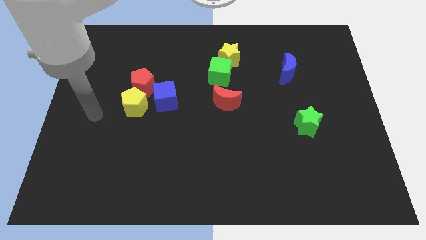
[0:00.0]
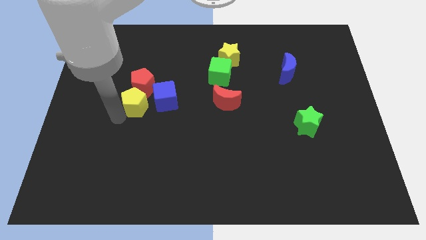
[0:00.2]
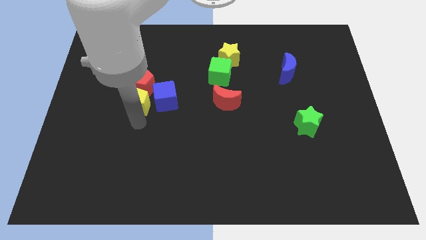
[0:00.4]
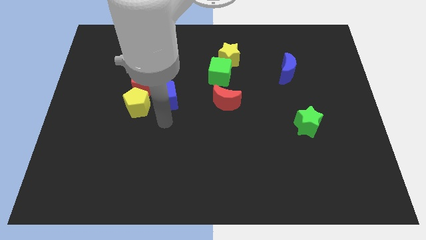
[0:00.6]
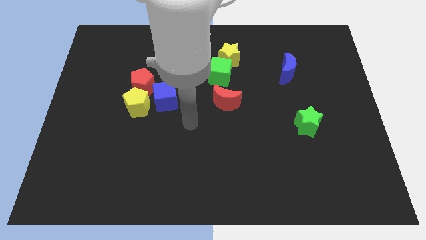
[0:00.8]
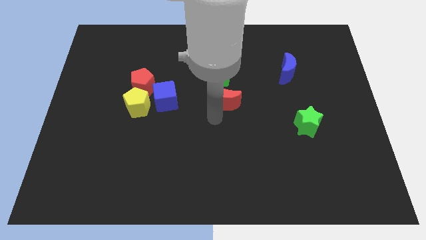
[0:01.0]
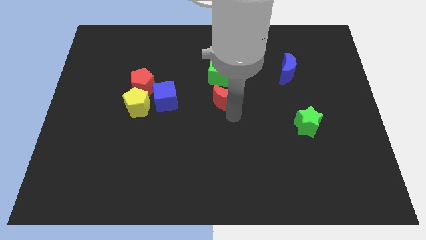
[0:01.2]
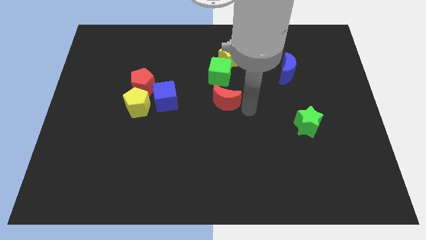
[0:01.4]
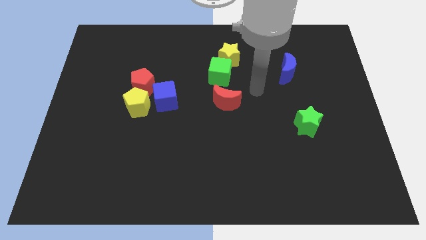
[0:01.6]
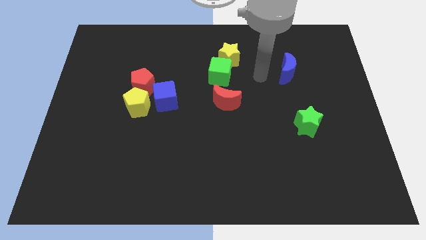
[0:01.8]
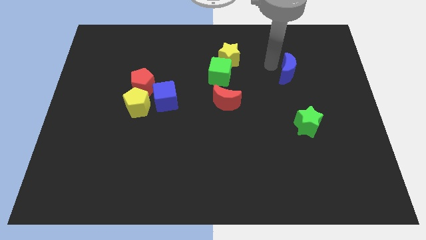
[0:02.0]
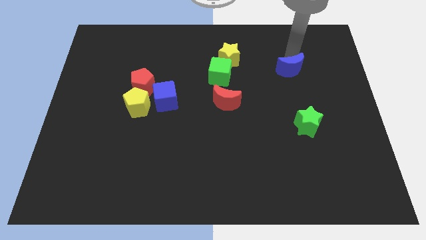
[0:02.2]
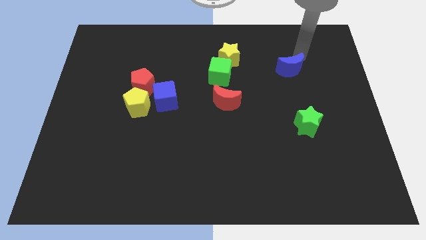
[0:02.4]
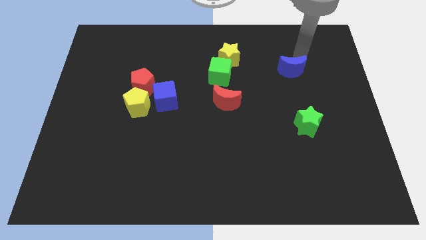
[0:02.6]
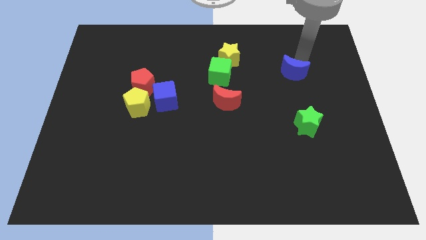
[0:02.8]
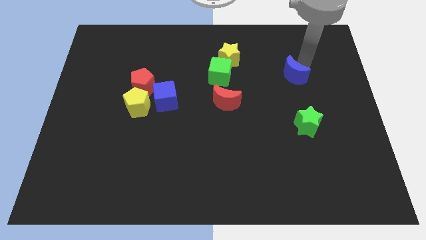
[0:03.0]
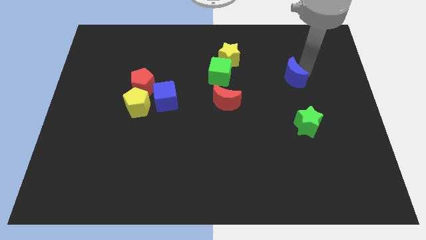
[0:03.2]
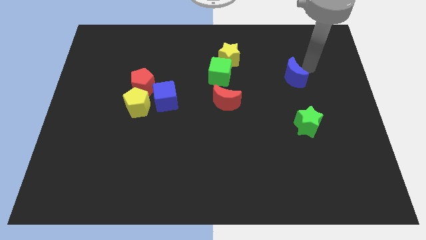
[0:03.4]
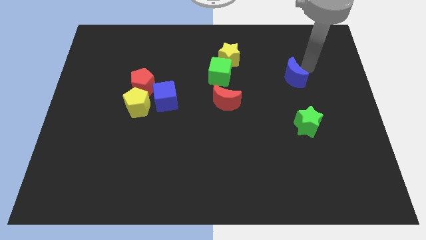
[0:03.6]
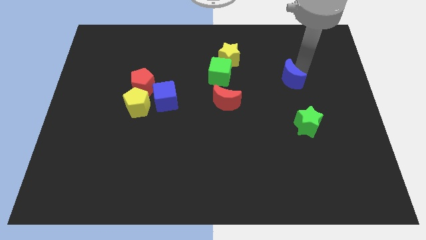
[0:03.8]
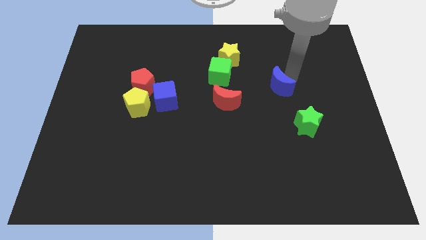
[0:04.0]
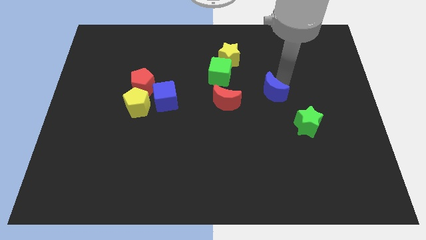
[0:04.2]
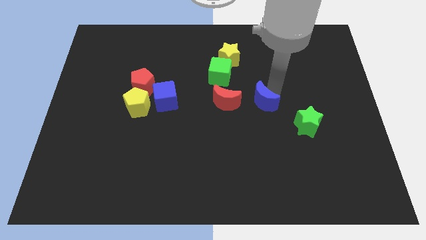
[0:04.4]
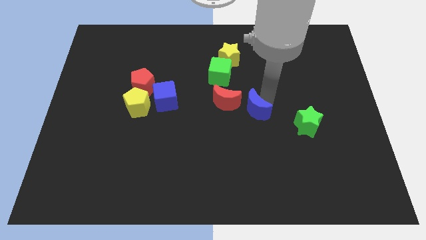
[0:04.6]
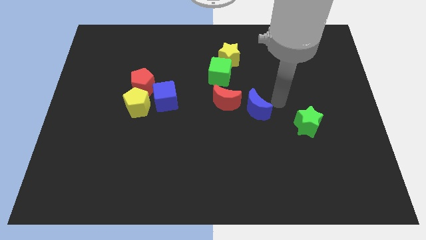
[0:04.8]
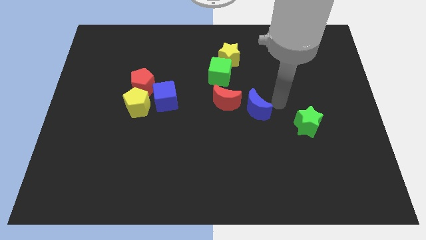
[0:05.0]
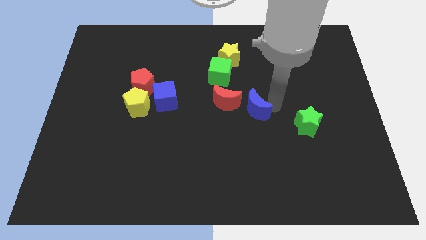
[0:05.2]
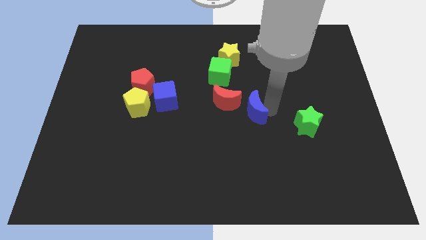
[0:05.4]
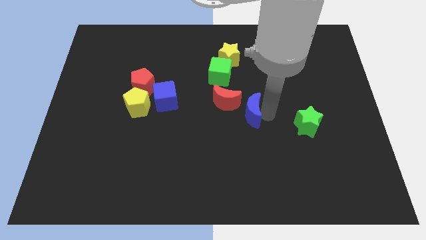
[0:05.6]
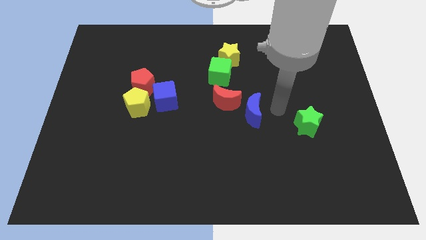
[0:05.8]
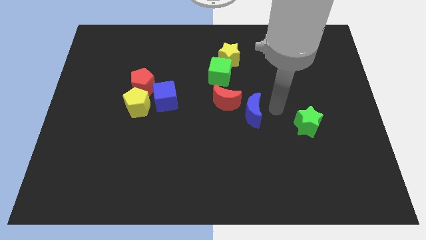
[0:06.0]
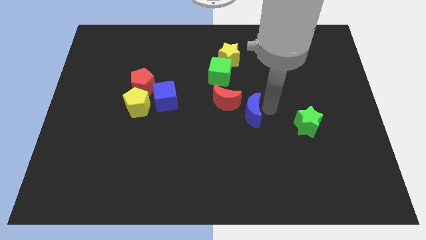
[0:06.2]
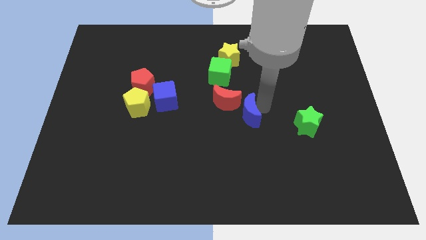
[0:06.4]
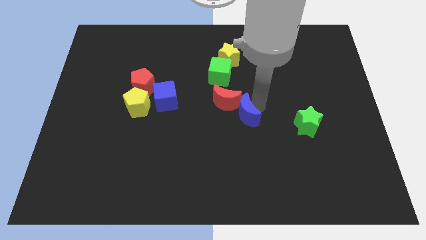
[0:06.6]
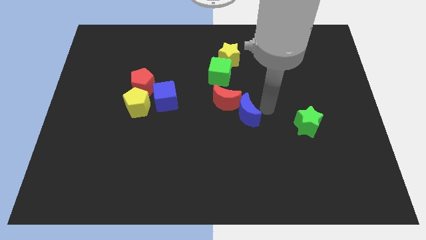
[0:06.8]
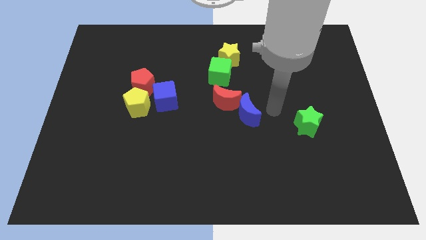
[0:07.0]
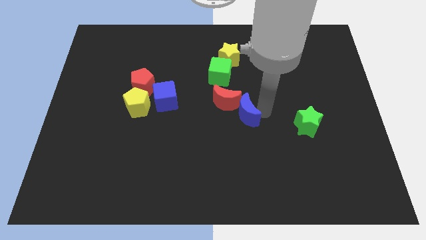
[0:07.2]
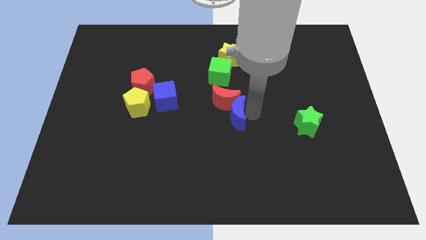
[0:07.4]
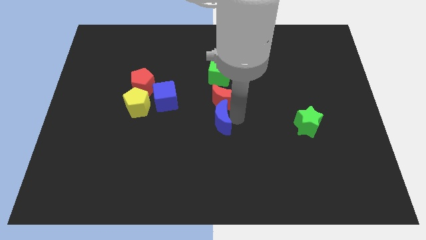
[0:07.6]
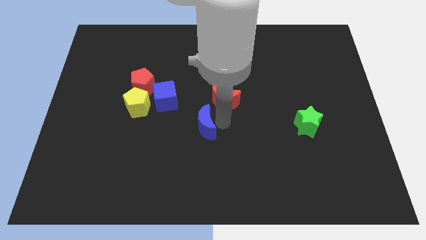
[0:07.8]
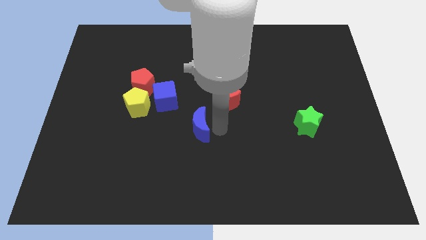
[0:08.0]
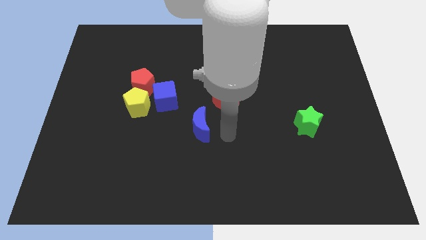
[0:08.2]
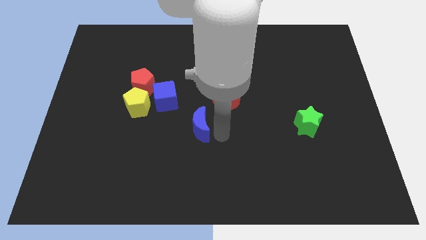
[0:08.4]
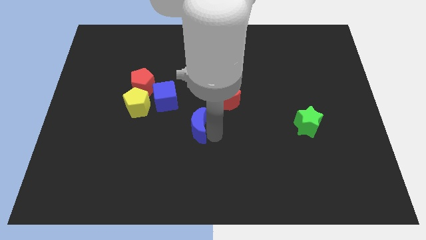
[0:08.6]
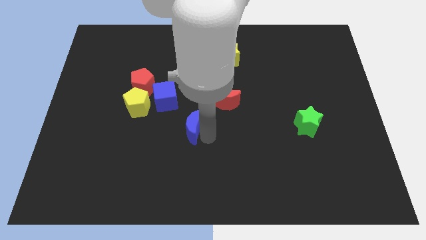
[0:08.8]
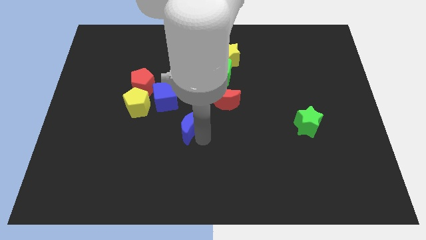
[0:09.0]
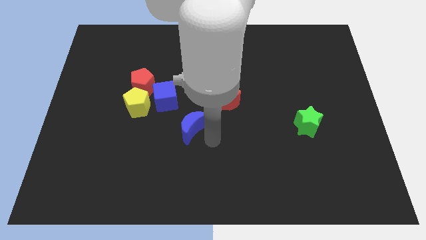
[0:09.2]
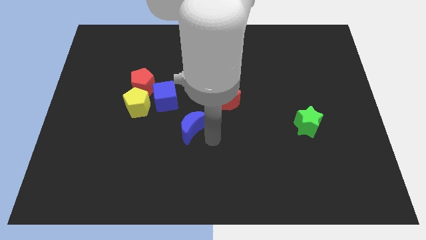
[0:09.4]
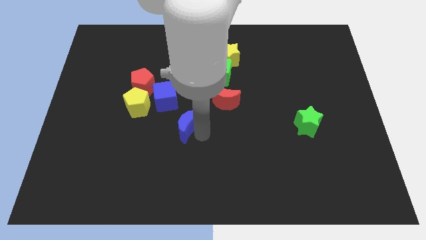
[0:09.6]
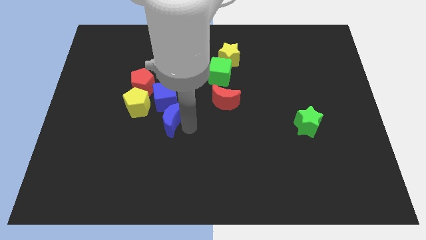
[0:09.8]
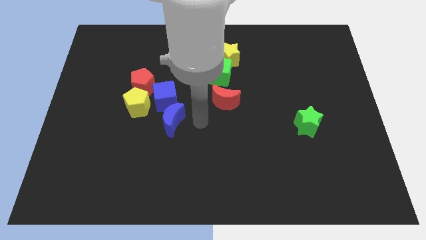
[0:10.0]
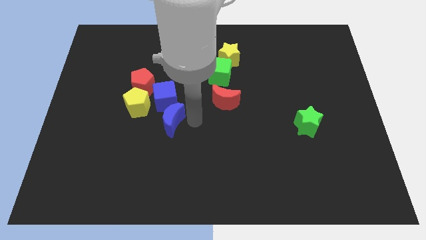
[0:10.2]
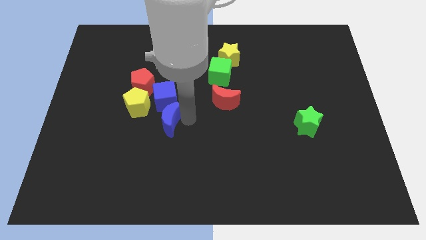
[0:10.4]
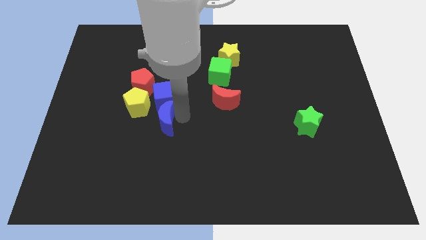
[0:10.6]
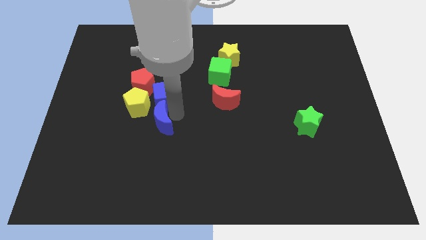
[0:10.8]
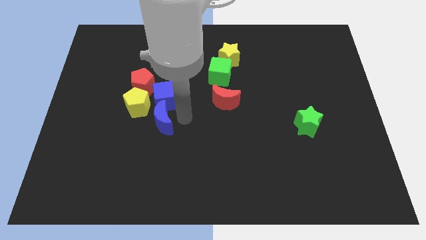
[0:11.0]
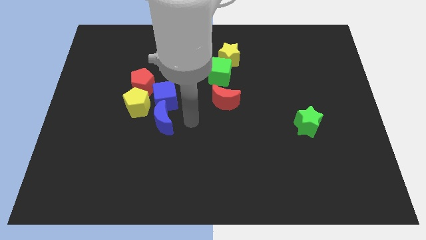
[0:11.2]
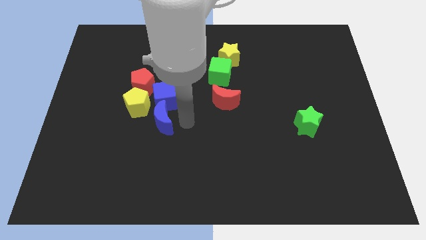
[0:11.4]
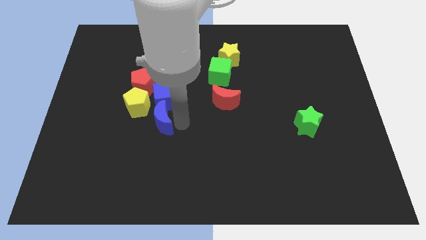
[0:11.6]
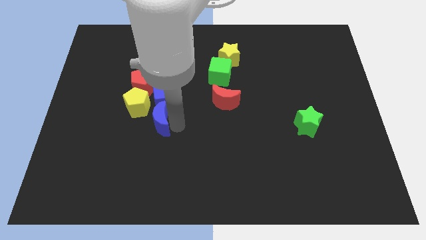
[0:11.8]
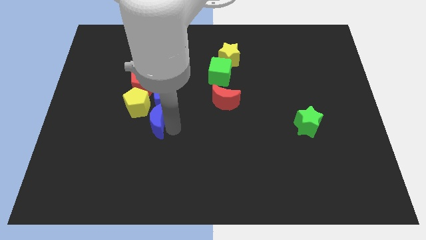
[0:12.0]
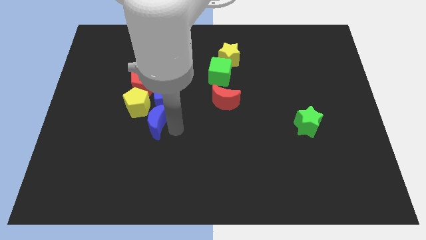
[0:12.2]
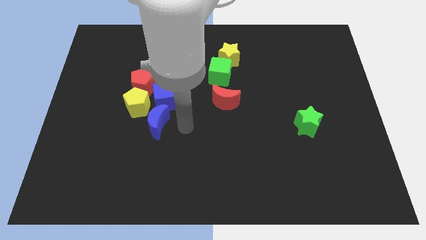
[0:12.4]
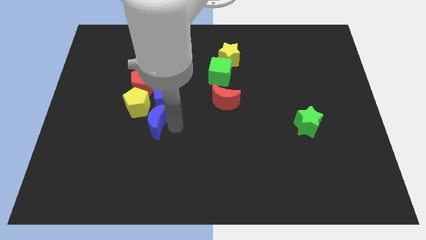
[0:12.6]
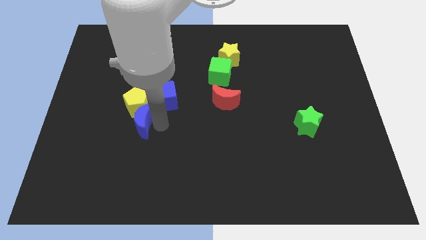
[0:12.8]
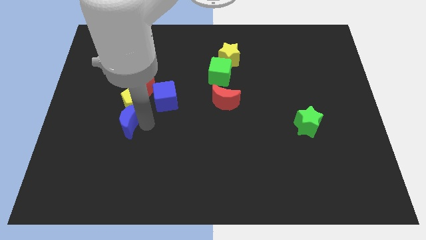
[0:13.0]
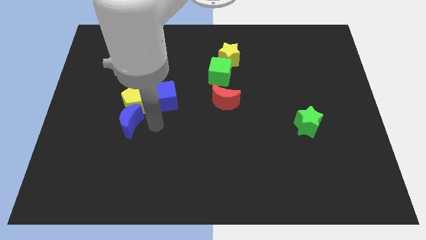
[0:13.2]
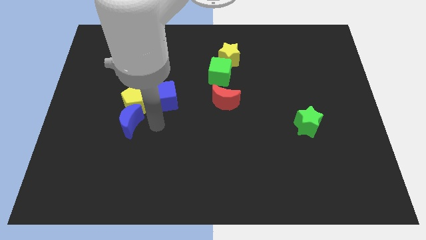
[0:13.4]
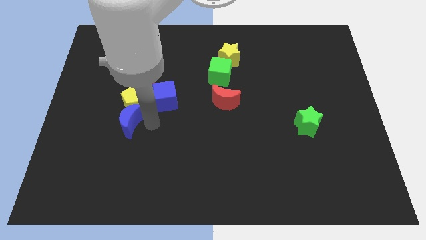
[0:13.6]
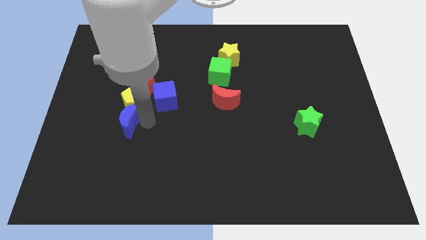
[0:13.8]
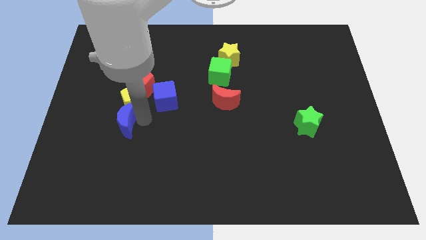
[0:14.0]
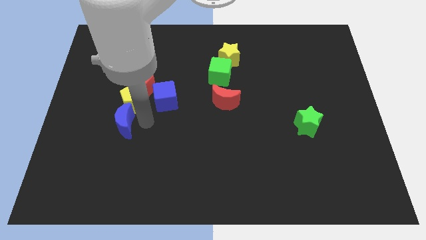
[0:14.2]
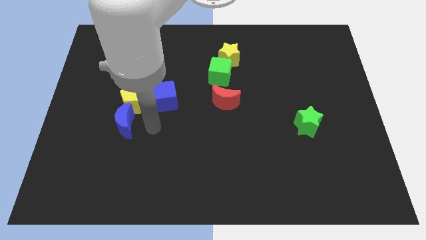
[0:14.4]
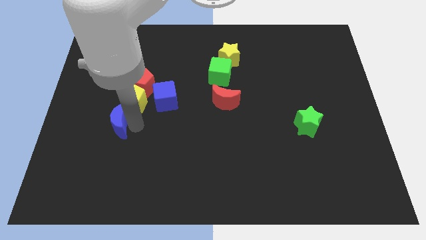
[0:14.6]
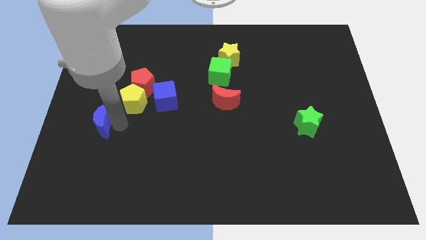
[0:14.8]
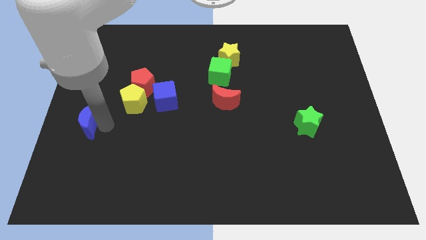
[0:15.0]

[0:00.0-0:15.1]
move the blue moon to the left side of the board
